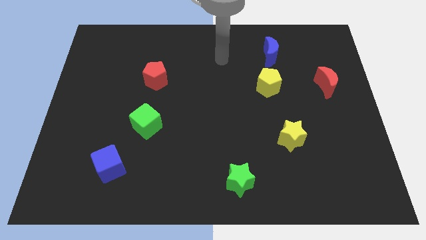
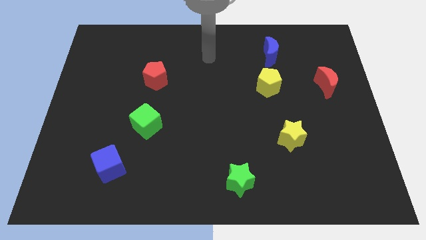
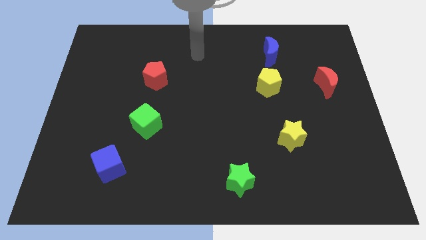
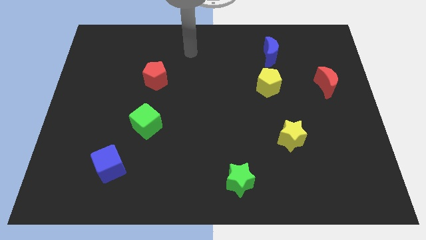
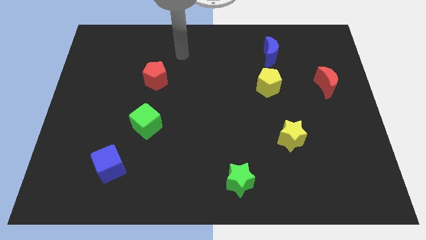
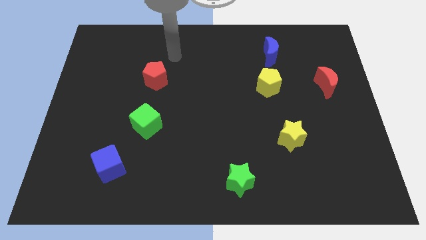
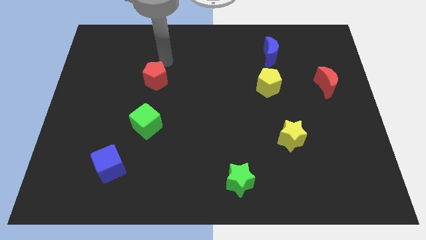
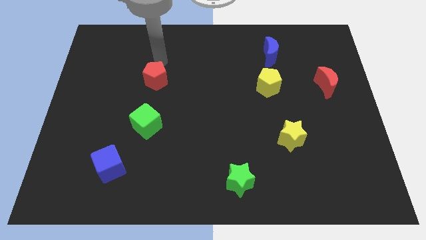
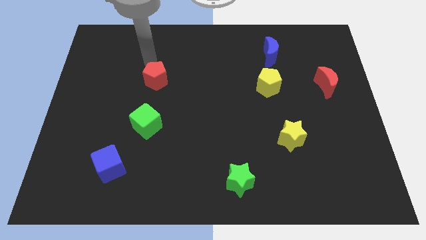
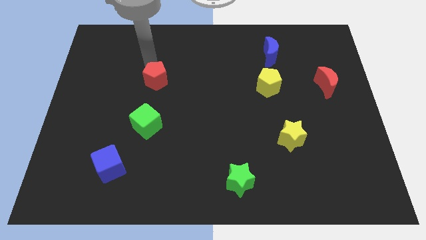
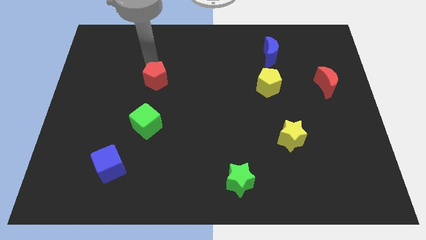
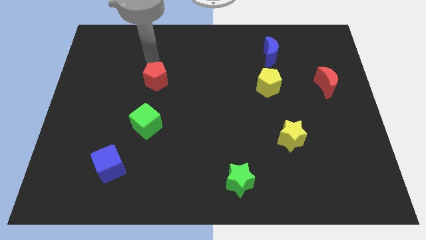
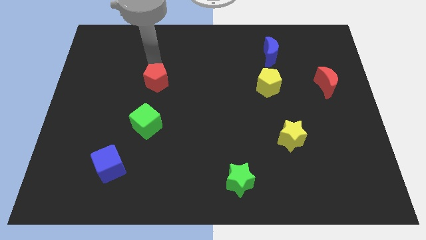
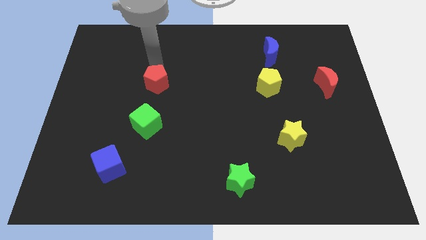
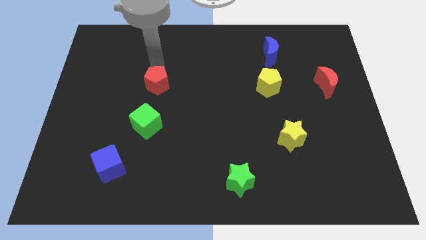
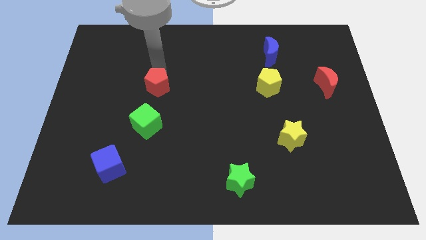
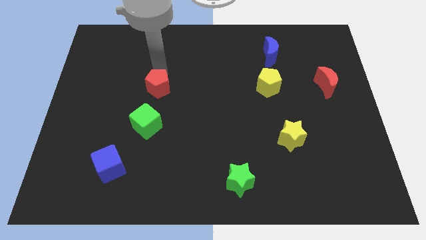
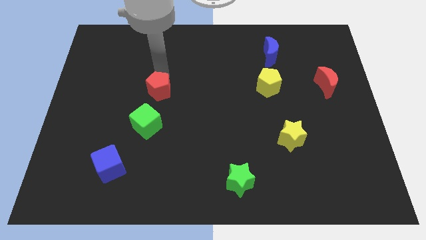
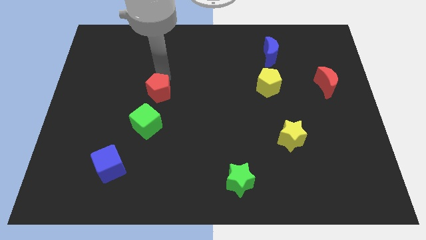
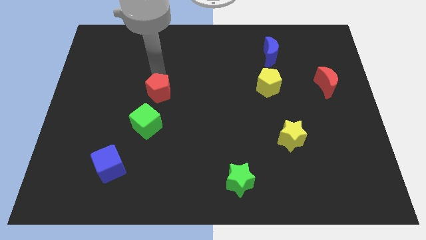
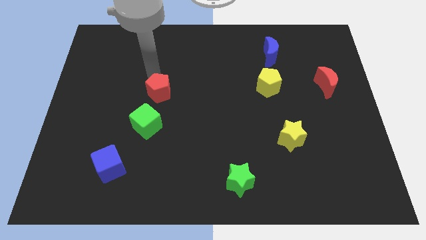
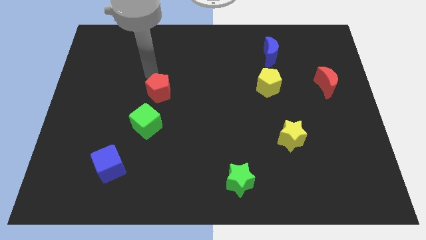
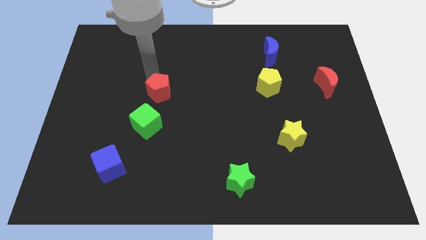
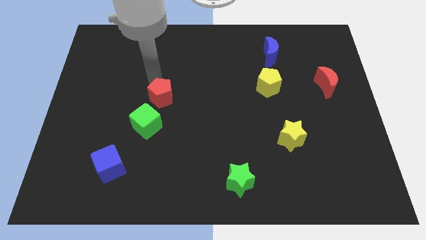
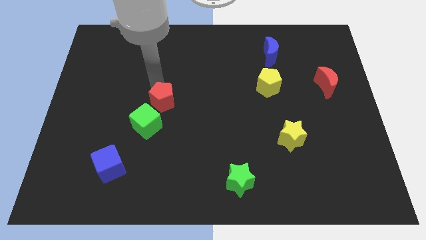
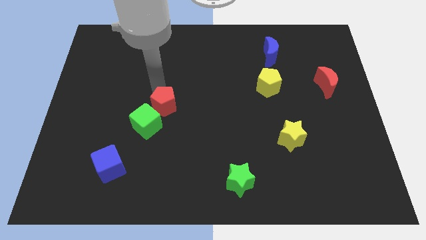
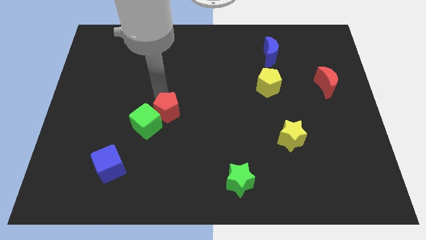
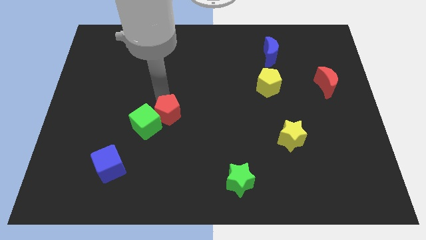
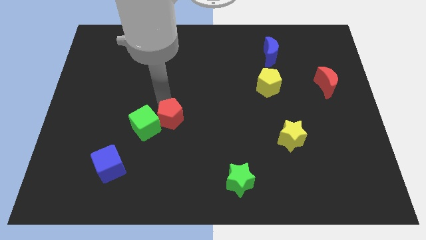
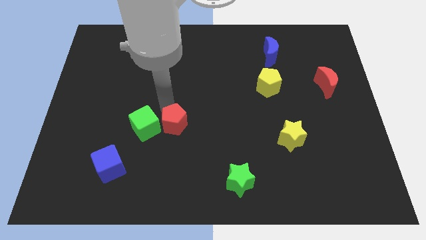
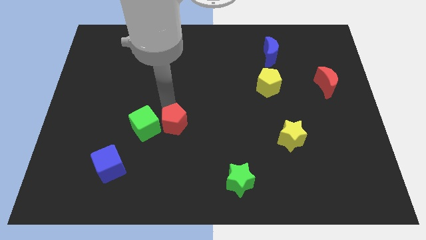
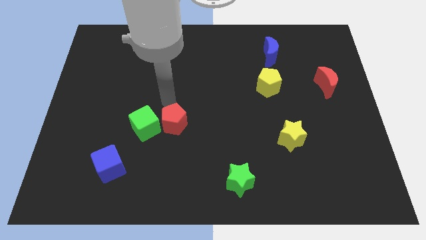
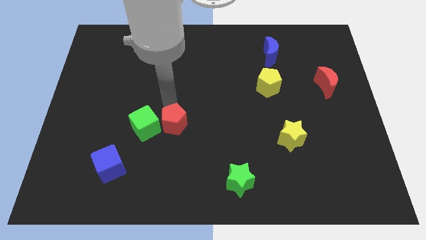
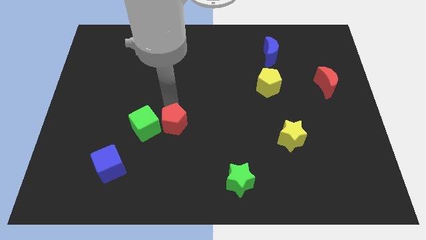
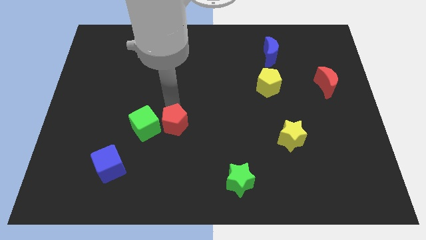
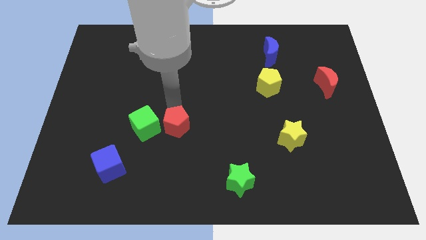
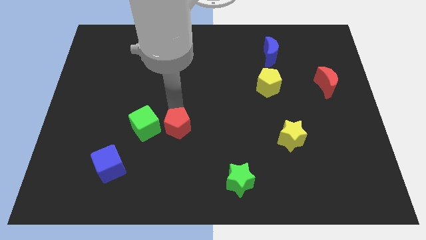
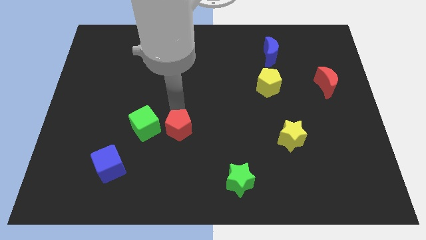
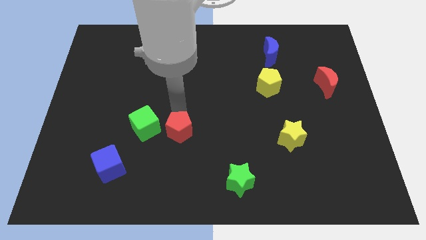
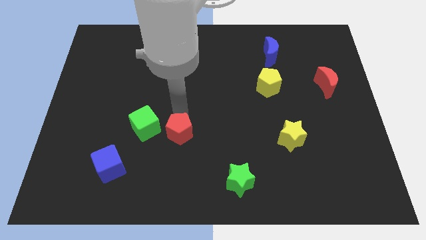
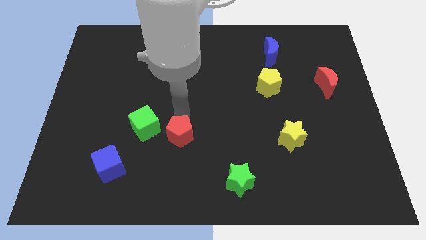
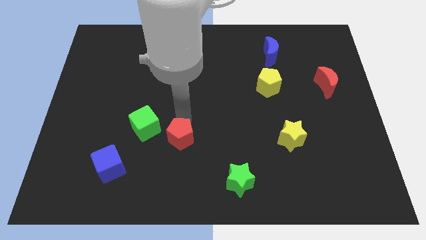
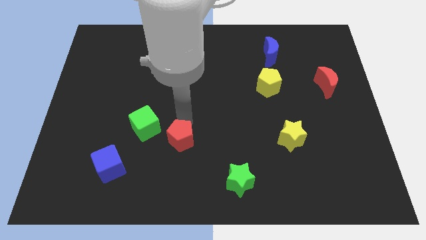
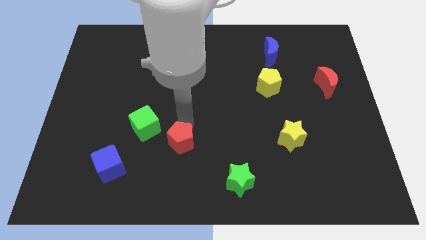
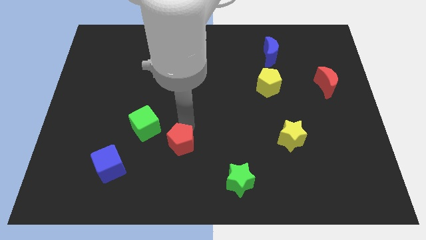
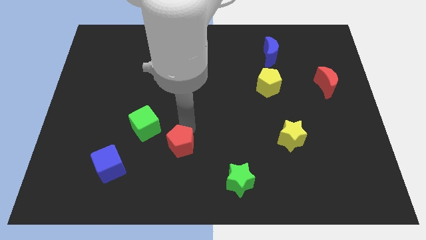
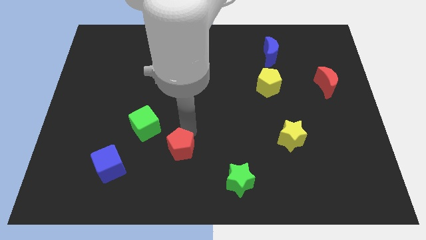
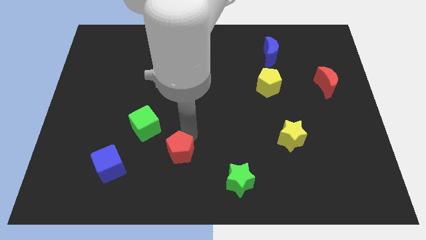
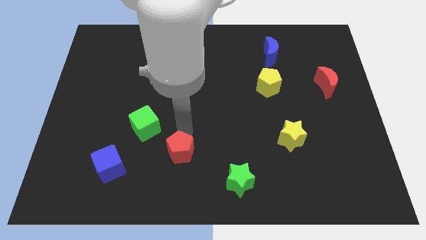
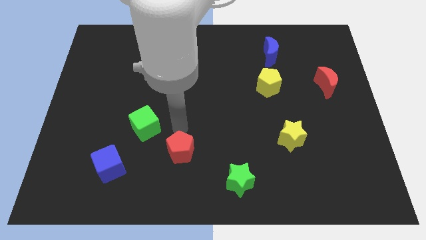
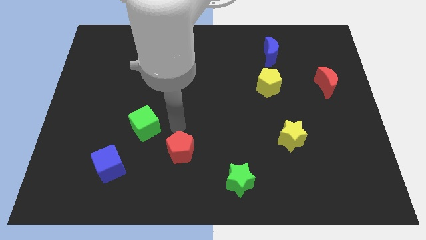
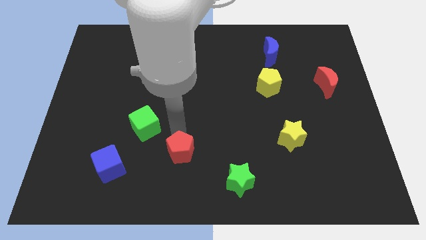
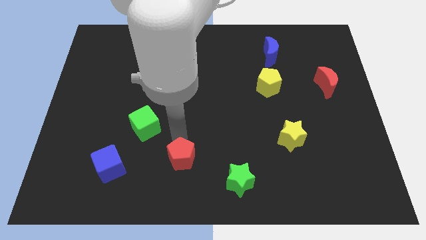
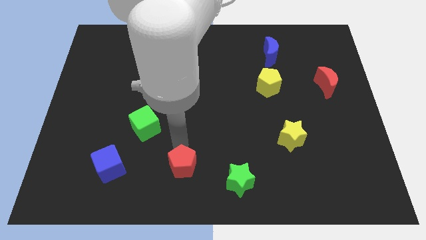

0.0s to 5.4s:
slide the red pentagon to the bottom
